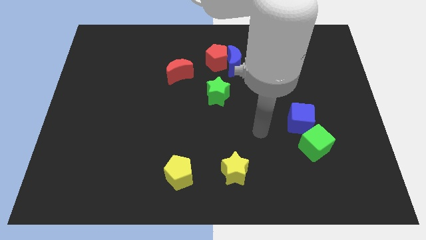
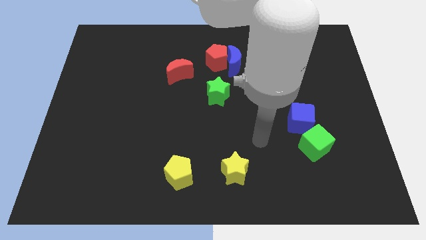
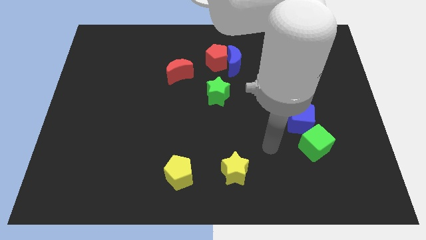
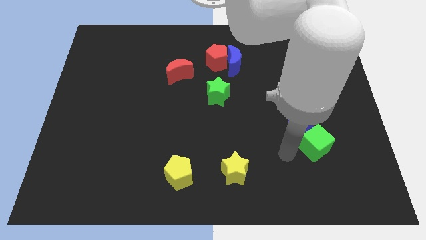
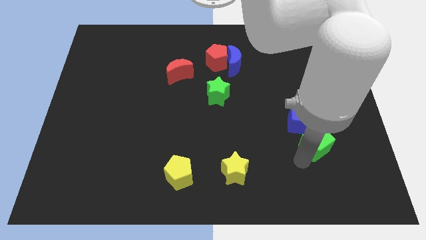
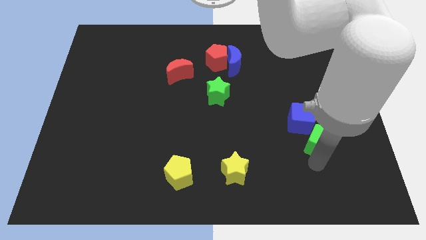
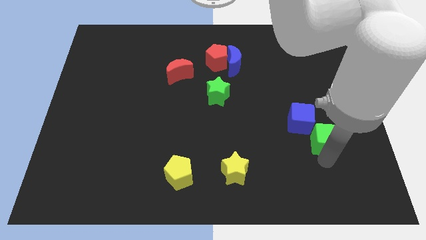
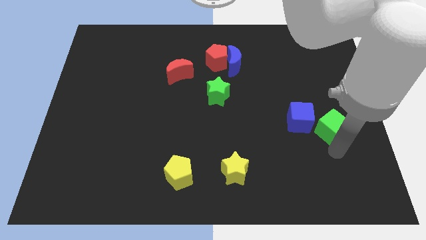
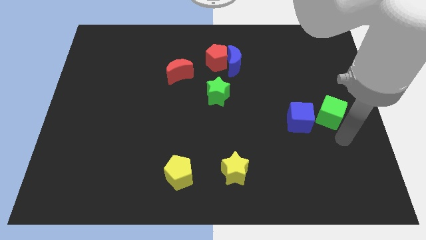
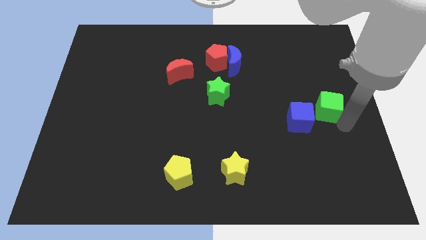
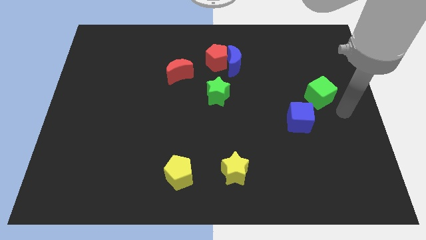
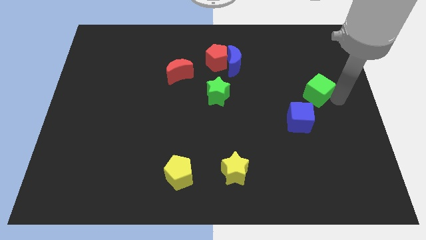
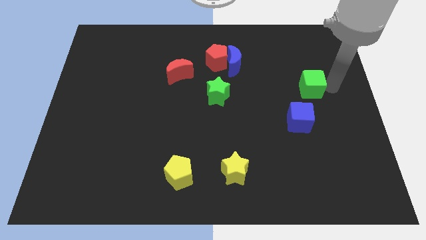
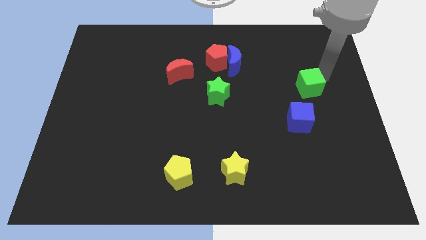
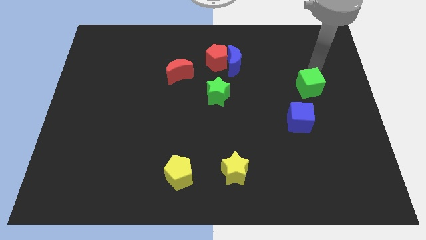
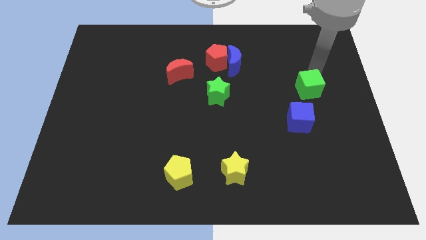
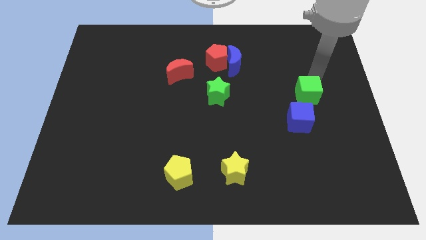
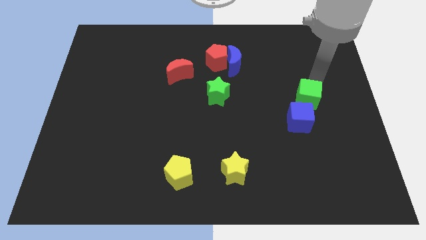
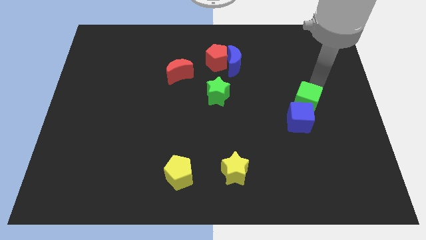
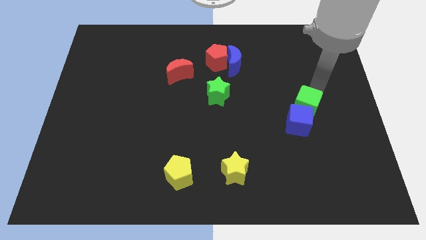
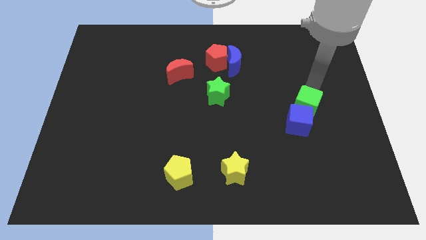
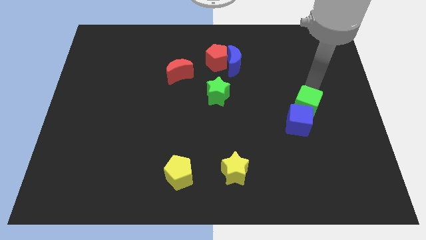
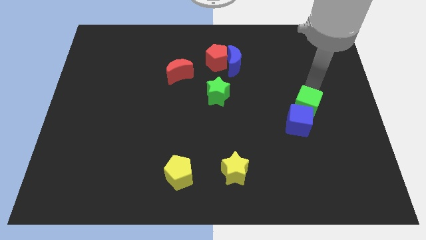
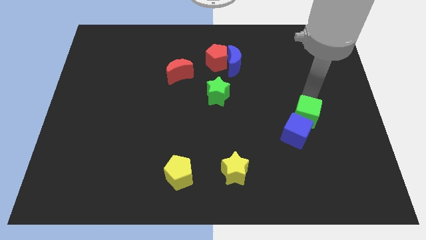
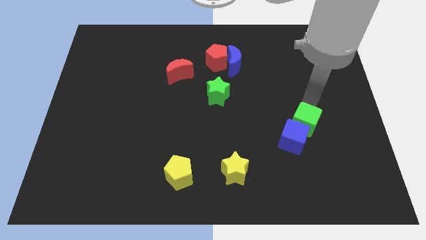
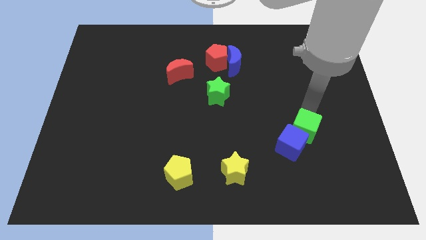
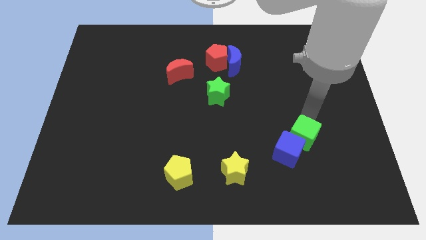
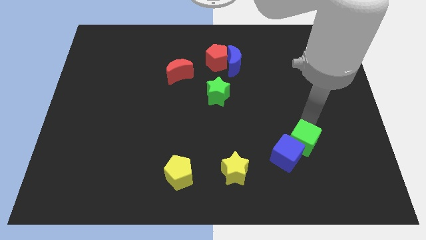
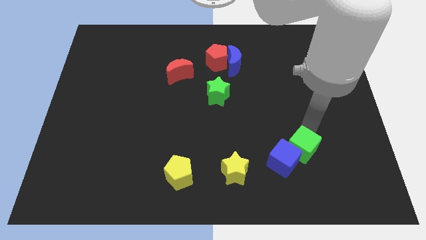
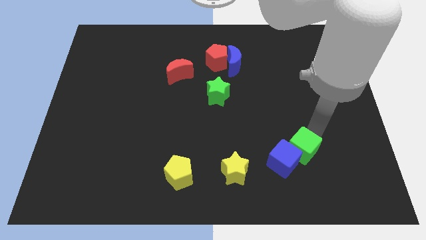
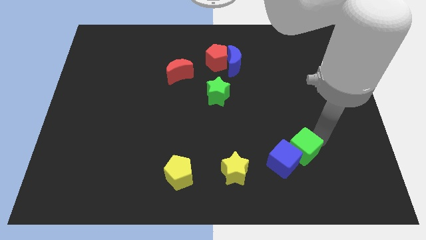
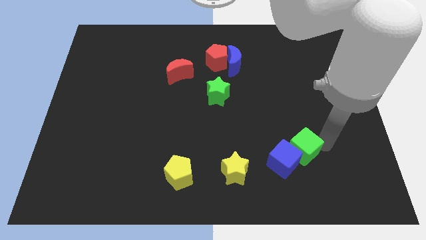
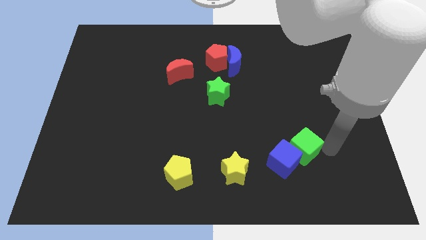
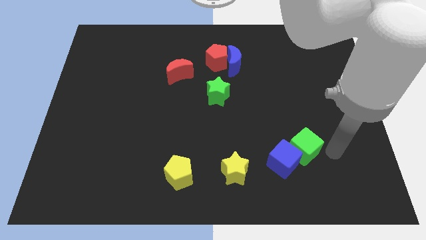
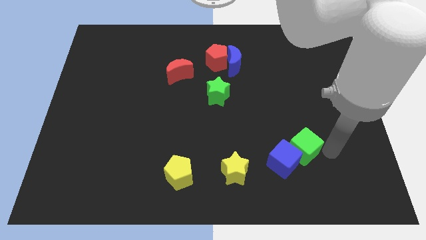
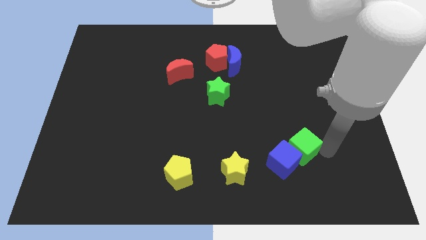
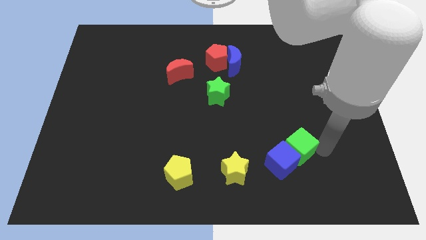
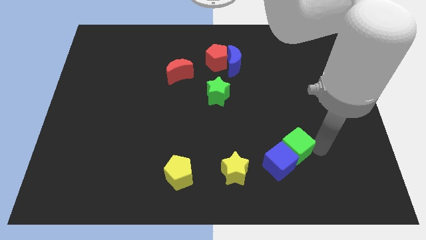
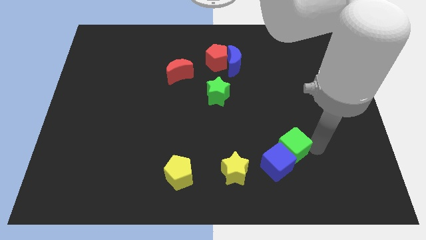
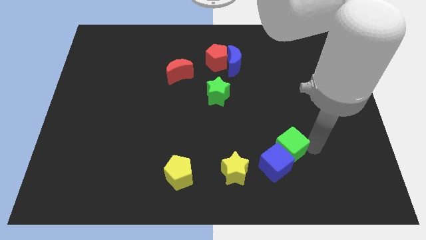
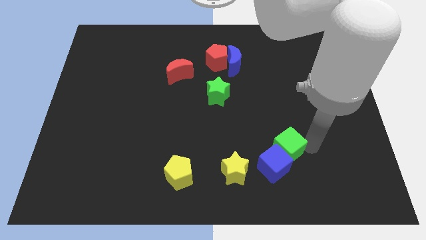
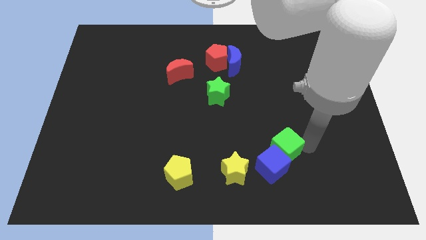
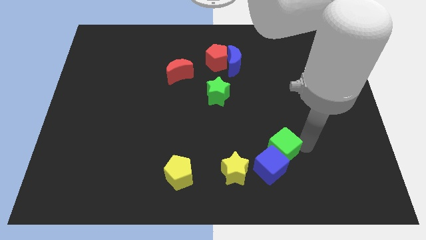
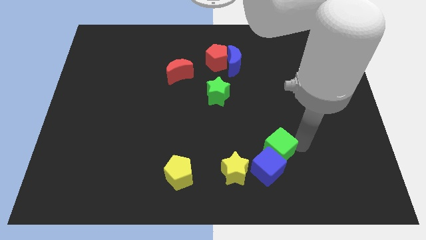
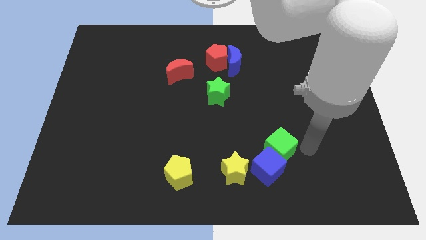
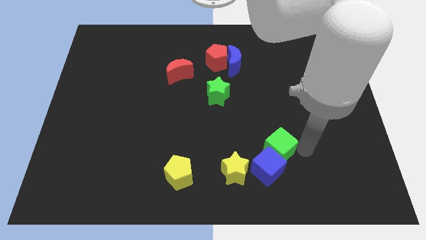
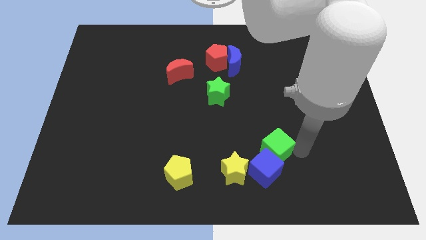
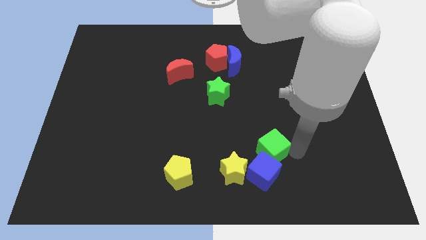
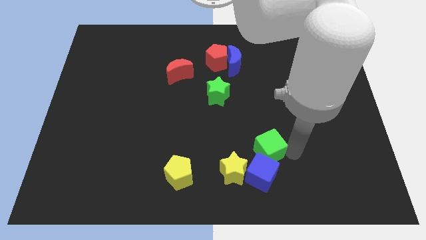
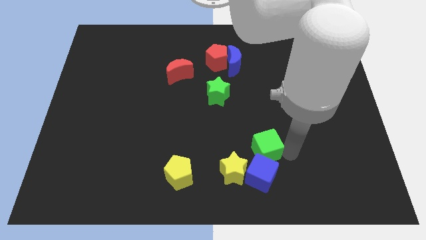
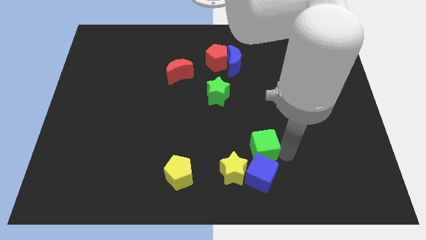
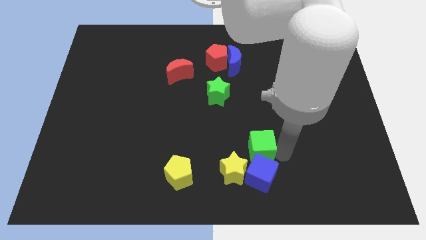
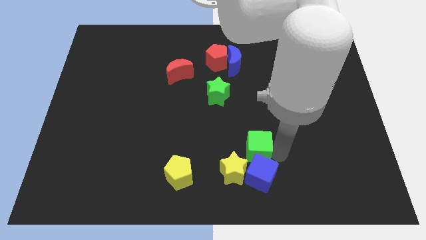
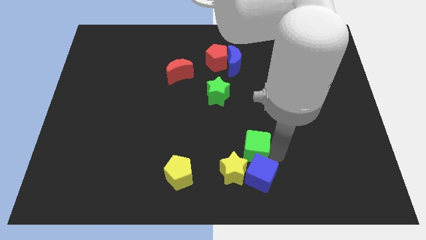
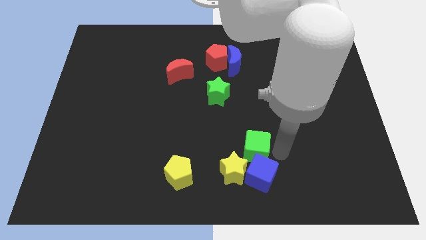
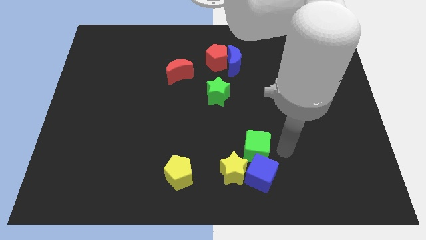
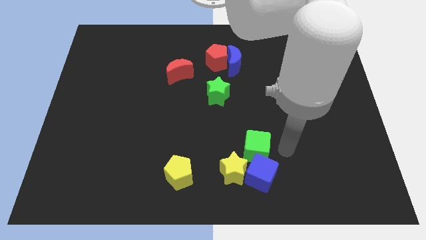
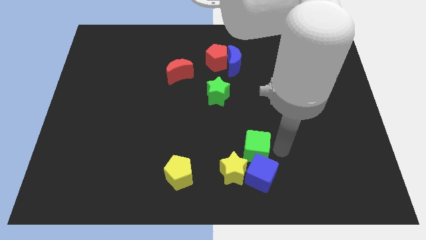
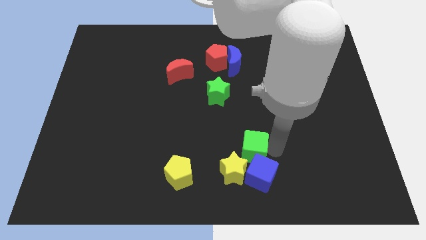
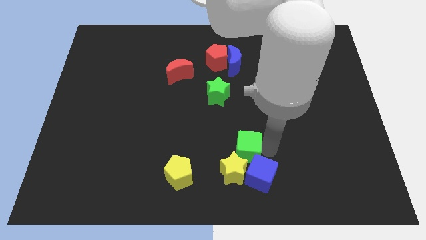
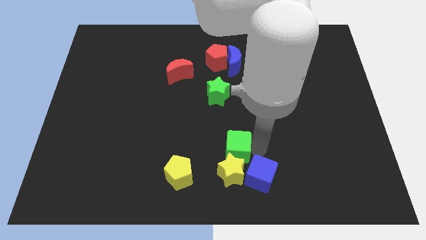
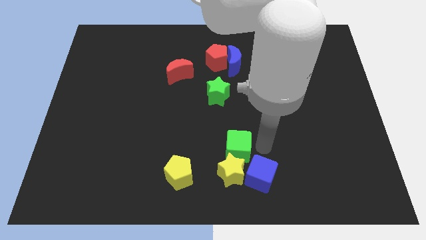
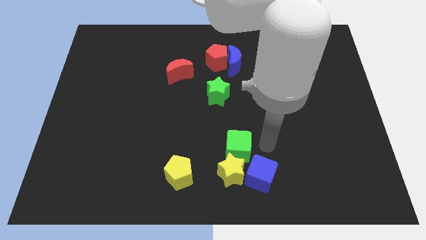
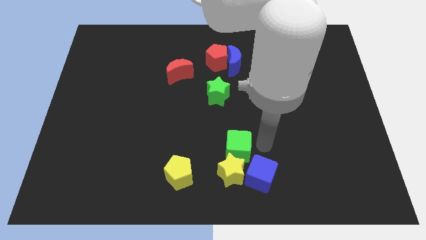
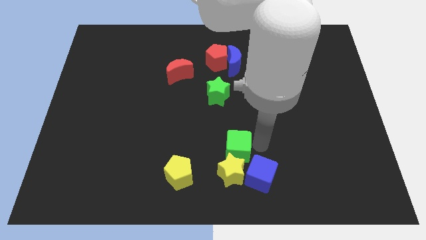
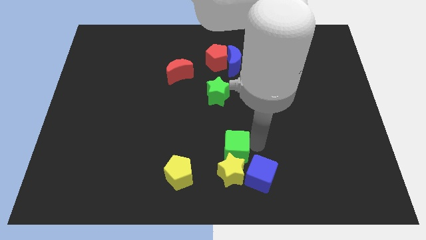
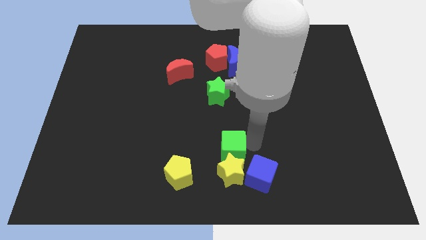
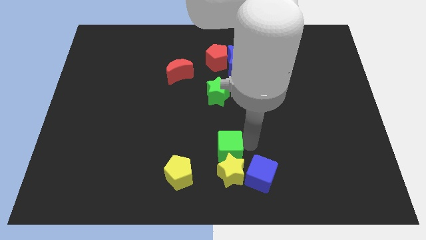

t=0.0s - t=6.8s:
slide the green cube to the top right side of the yellow pentagon

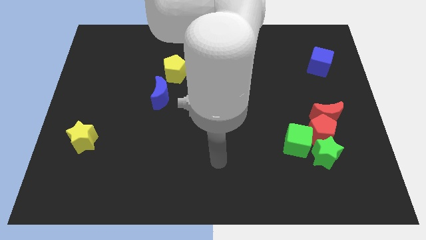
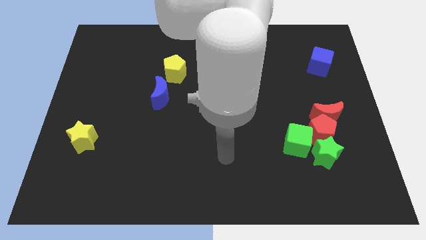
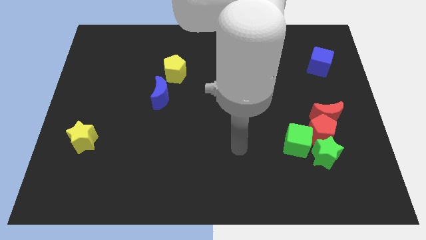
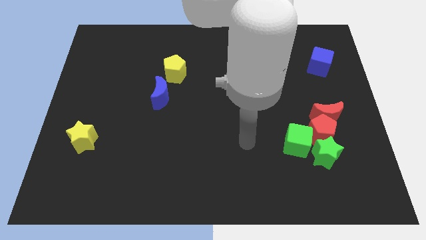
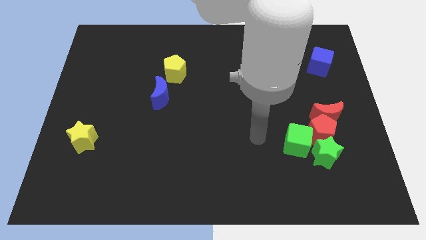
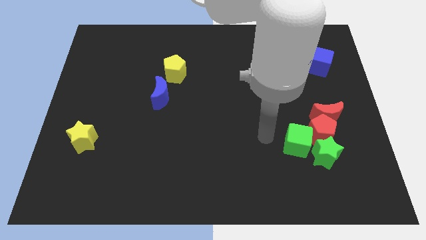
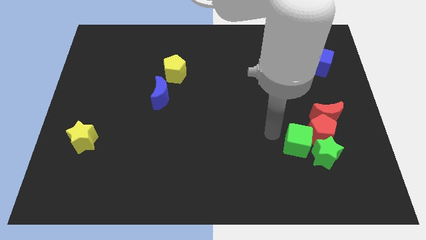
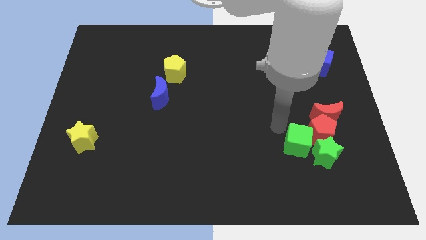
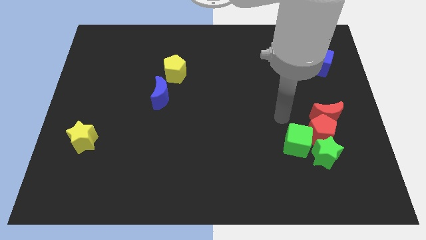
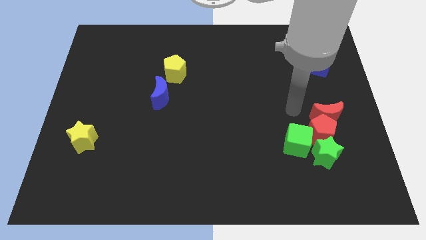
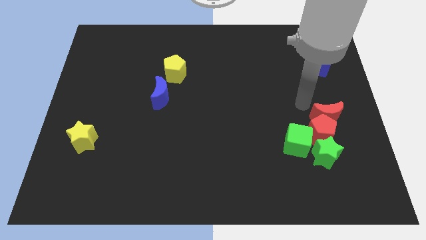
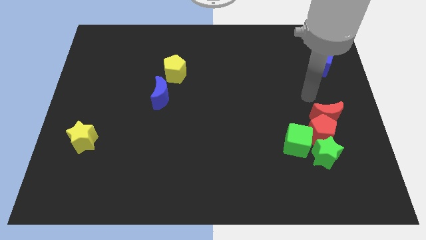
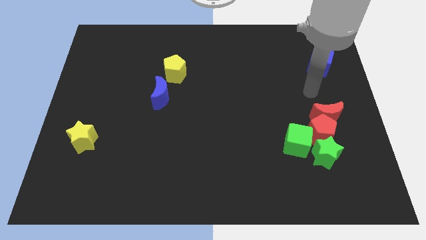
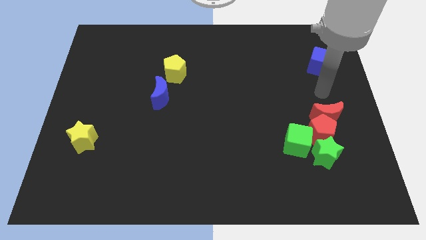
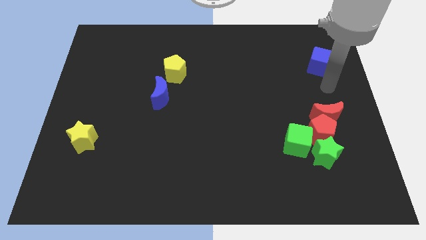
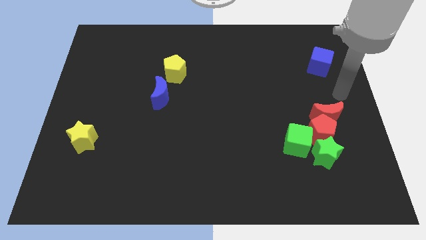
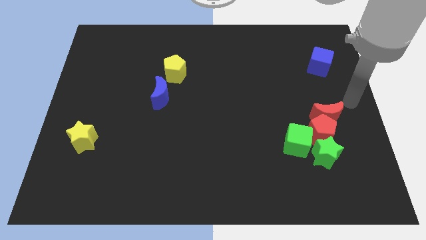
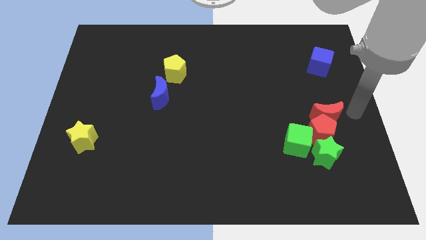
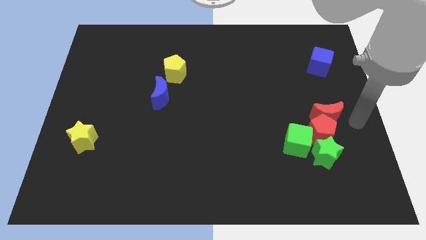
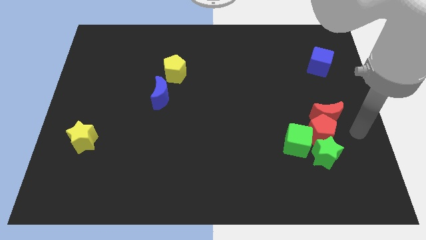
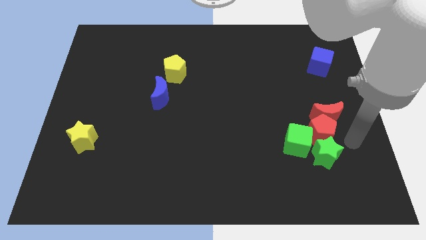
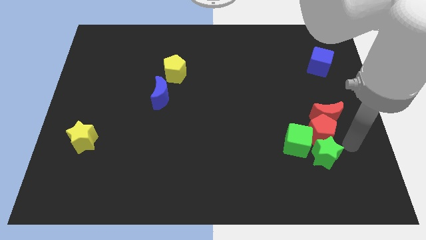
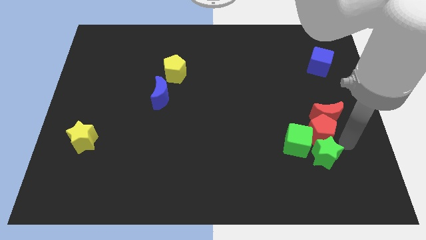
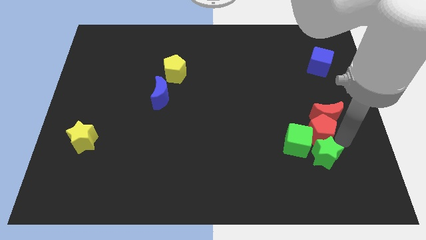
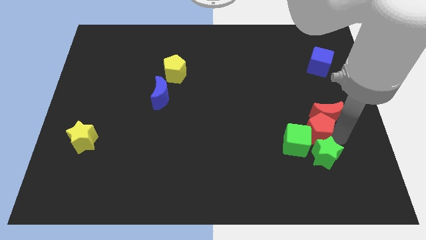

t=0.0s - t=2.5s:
put the red pentagon to the left of the red moon
